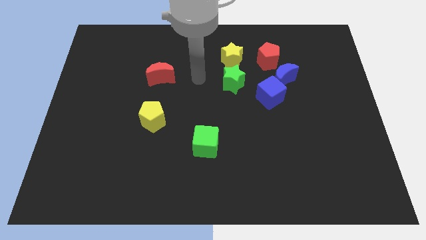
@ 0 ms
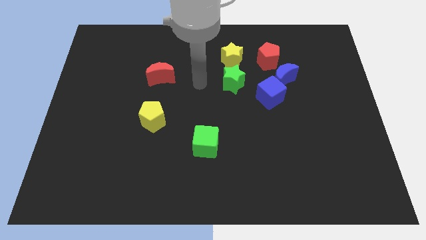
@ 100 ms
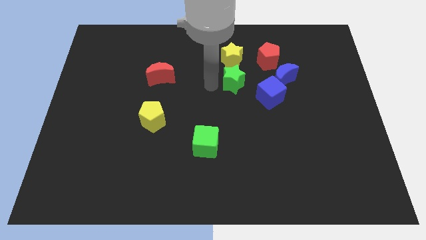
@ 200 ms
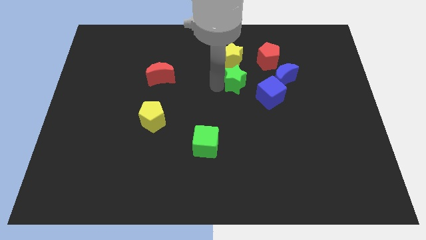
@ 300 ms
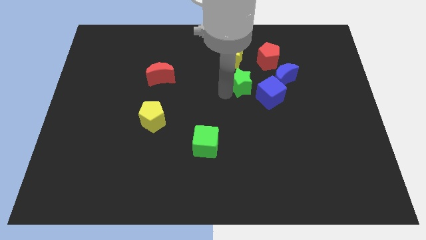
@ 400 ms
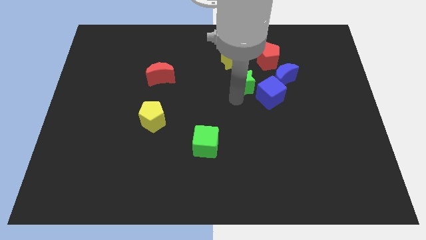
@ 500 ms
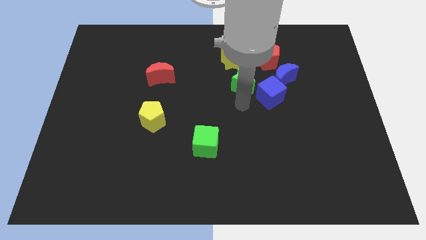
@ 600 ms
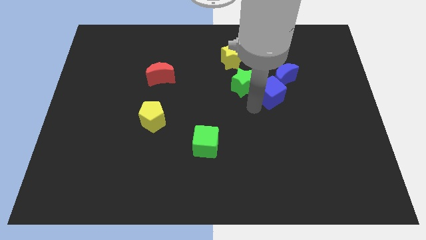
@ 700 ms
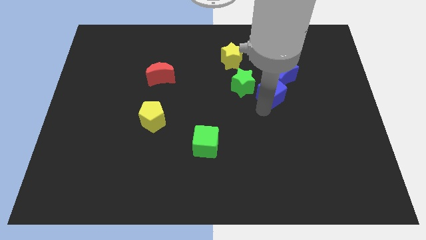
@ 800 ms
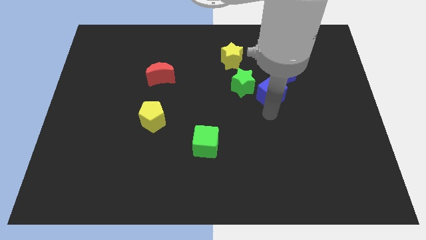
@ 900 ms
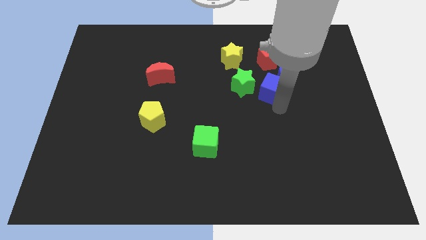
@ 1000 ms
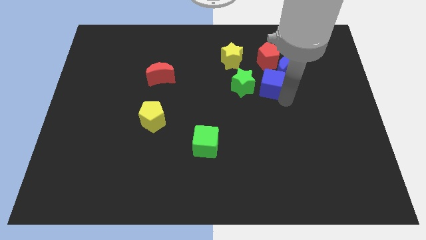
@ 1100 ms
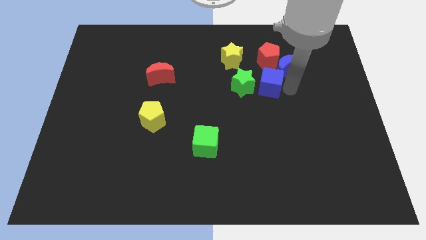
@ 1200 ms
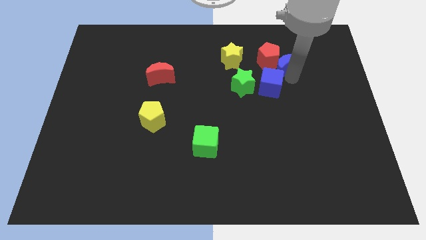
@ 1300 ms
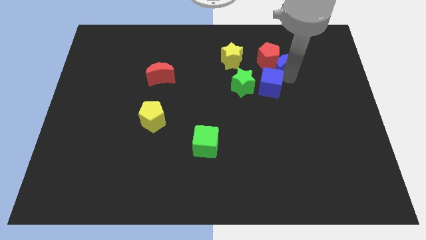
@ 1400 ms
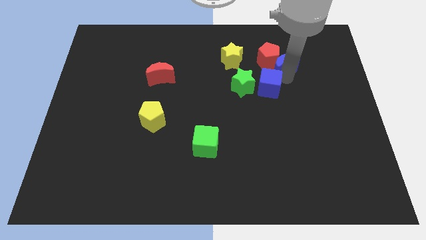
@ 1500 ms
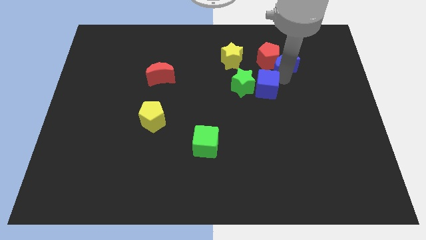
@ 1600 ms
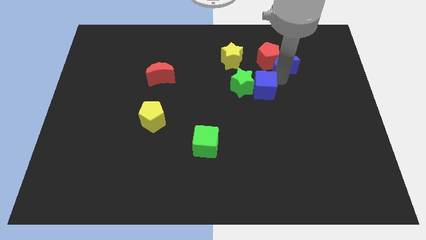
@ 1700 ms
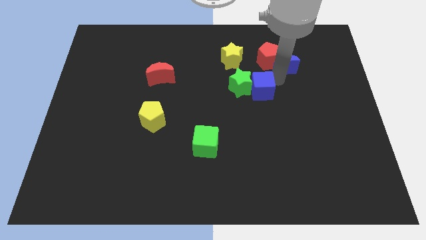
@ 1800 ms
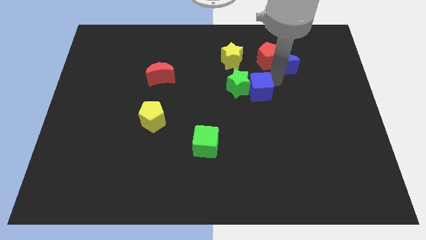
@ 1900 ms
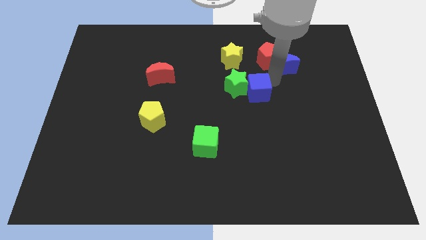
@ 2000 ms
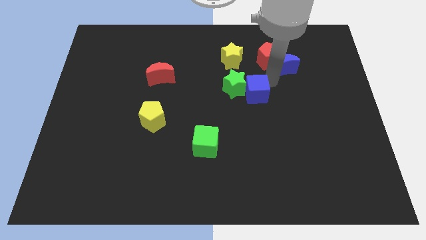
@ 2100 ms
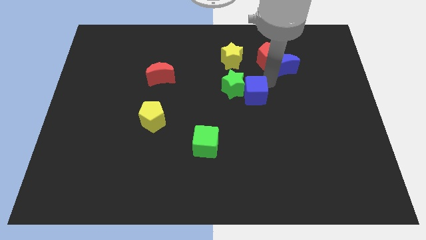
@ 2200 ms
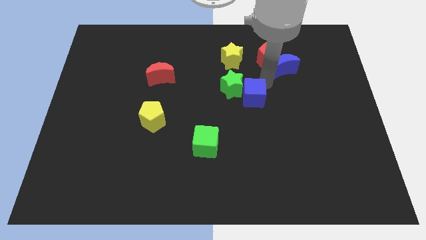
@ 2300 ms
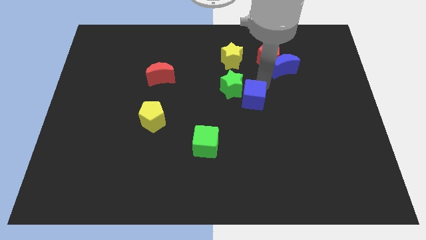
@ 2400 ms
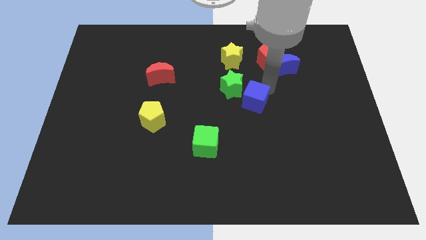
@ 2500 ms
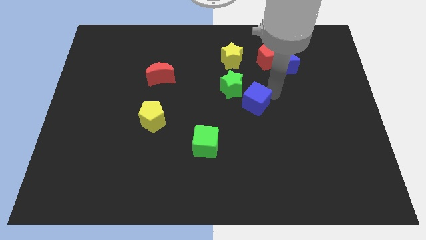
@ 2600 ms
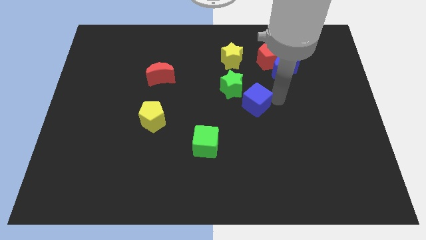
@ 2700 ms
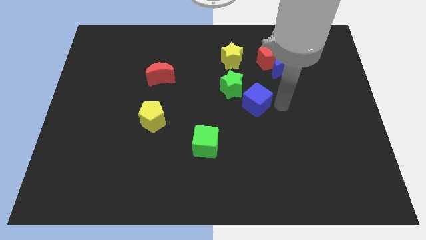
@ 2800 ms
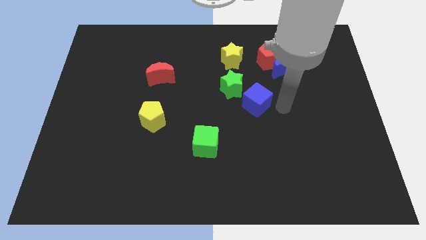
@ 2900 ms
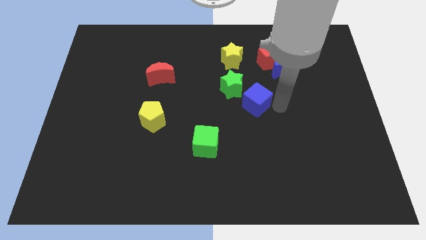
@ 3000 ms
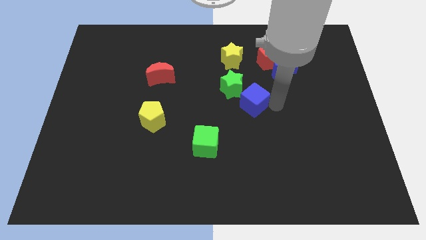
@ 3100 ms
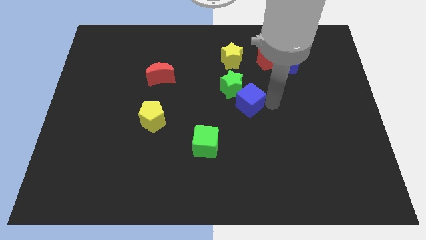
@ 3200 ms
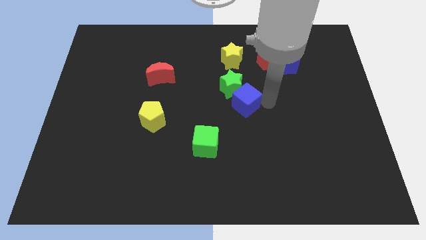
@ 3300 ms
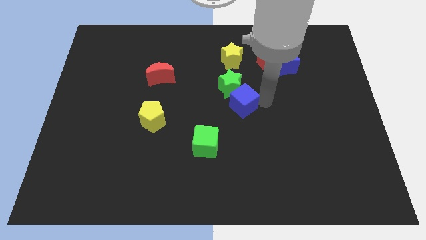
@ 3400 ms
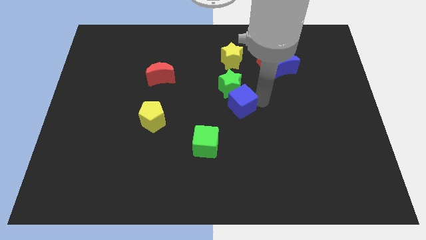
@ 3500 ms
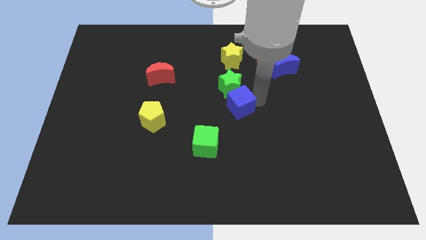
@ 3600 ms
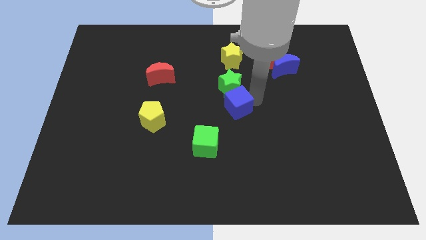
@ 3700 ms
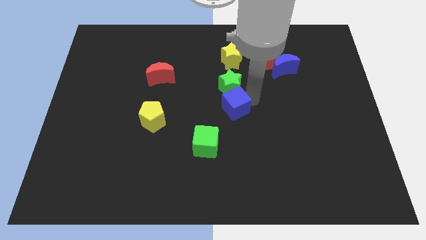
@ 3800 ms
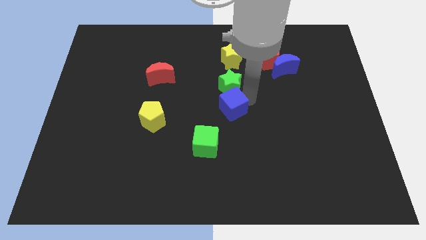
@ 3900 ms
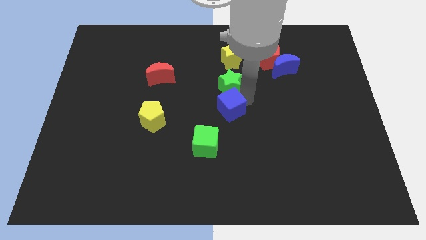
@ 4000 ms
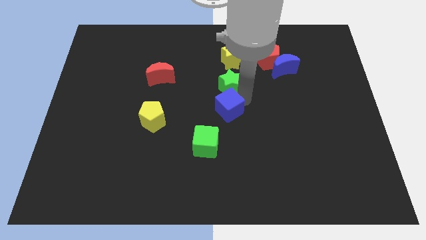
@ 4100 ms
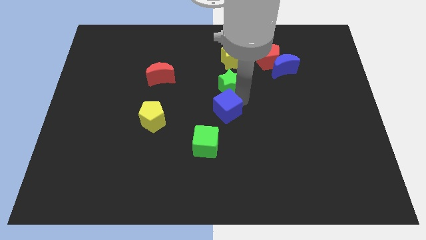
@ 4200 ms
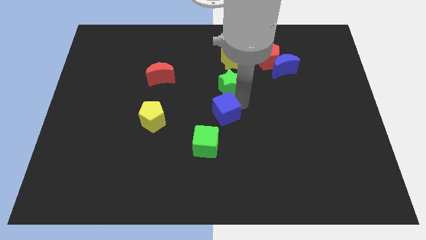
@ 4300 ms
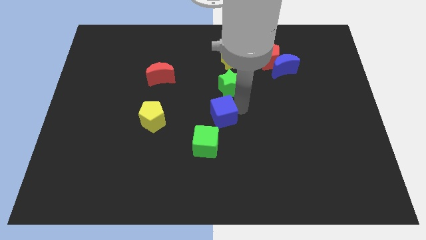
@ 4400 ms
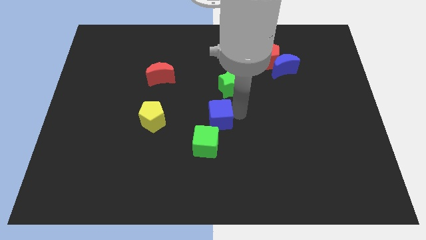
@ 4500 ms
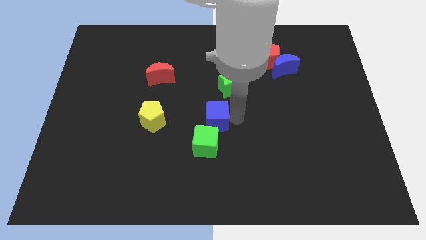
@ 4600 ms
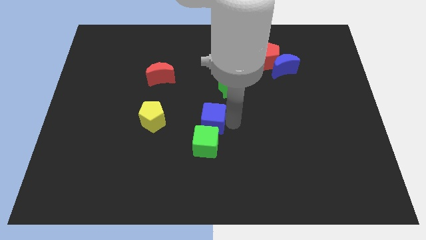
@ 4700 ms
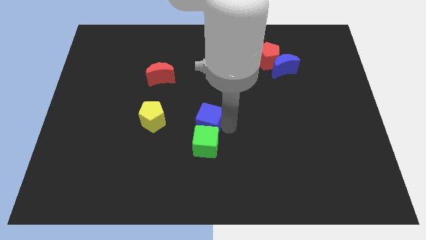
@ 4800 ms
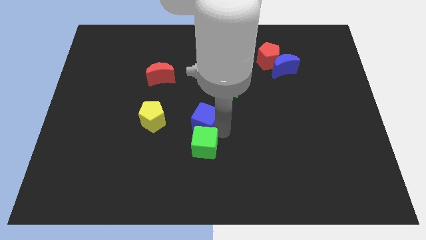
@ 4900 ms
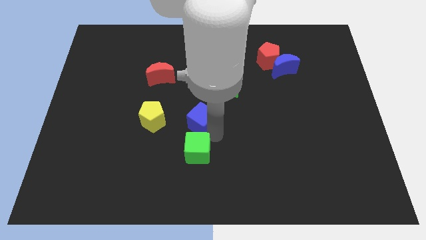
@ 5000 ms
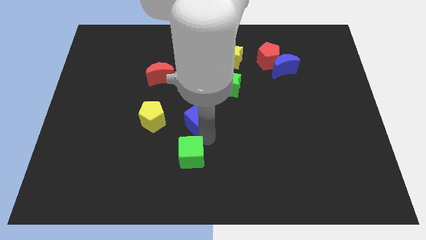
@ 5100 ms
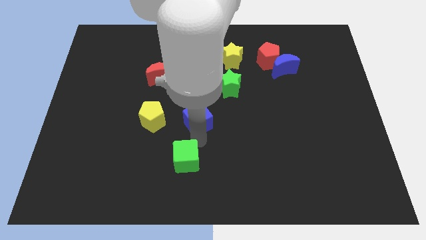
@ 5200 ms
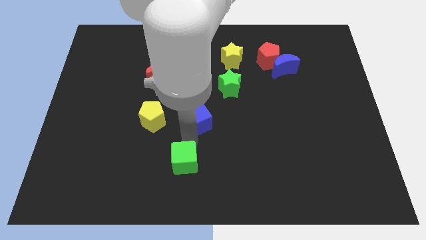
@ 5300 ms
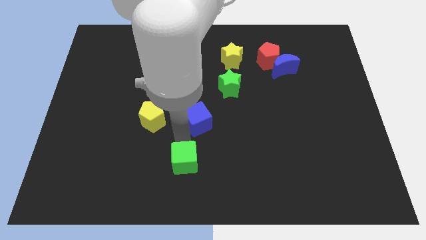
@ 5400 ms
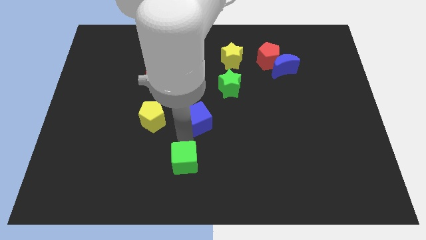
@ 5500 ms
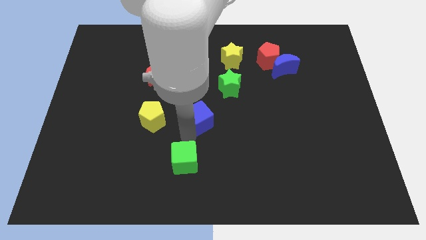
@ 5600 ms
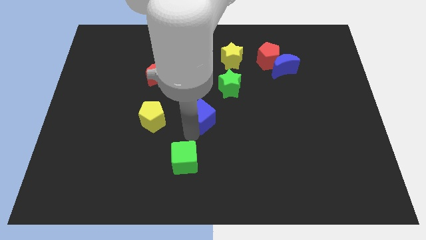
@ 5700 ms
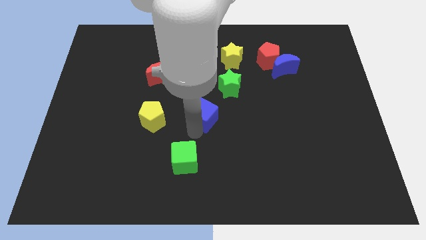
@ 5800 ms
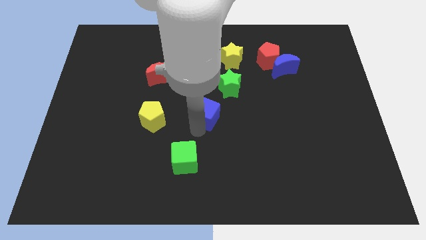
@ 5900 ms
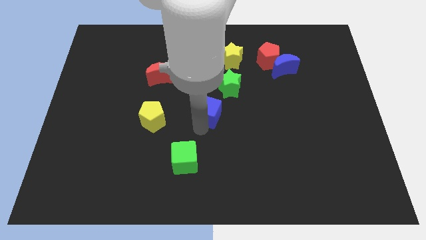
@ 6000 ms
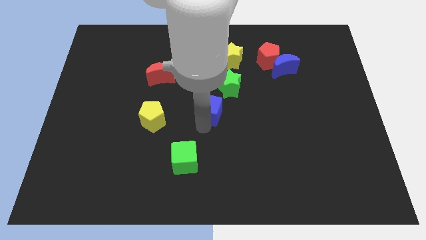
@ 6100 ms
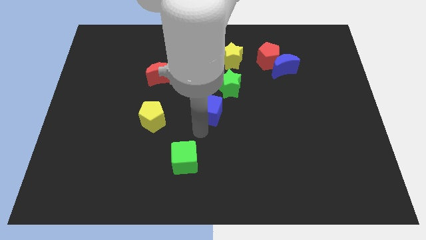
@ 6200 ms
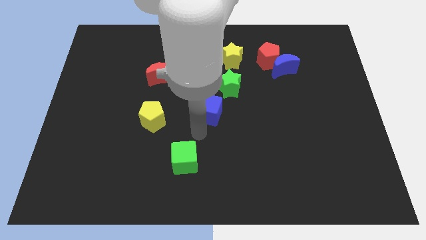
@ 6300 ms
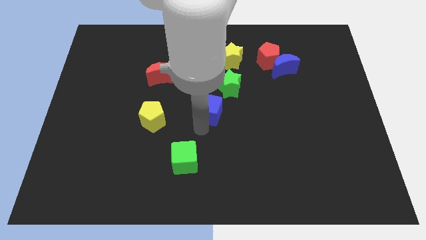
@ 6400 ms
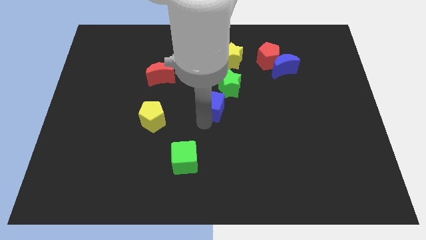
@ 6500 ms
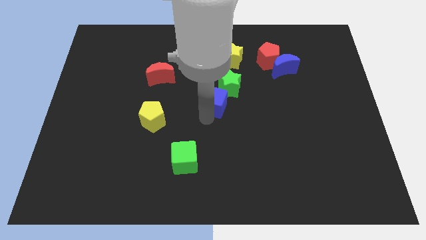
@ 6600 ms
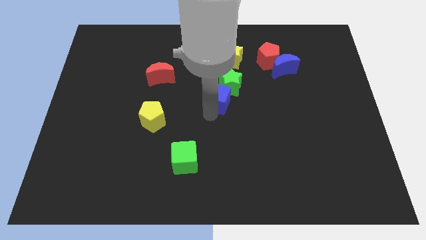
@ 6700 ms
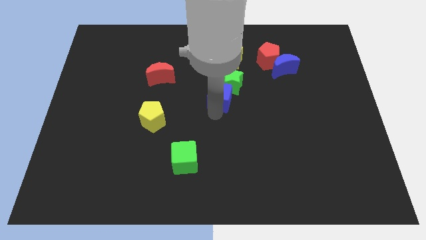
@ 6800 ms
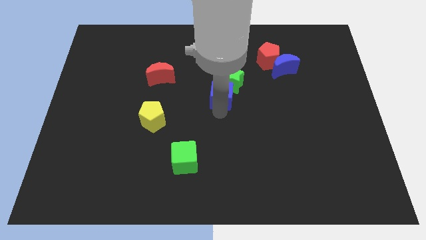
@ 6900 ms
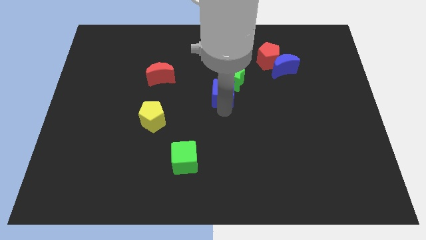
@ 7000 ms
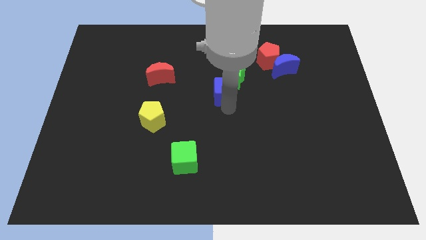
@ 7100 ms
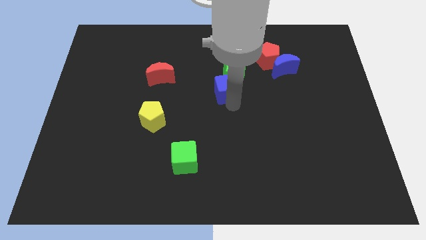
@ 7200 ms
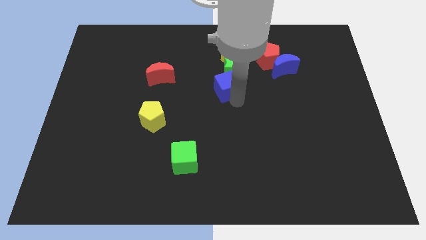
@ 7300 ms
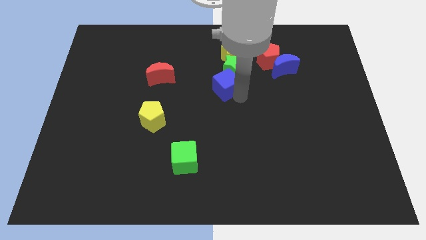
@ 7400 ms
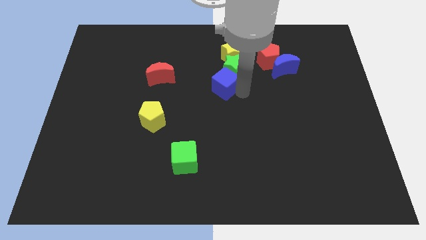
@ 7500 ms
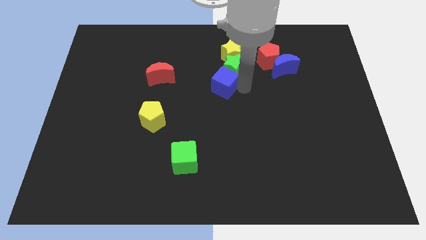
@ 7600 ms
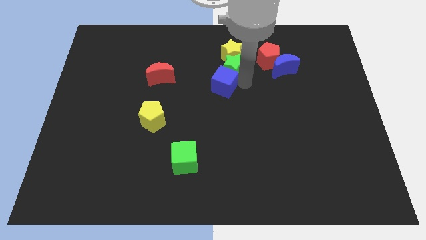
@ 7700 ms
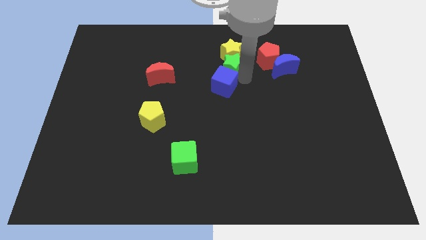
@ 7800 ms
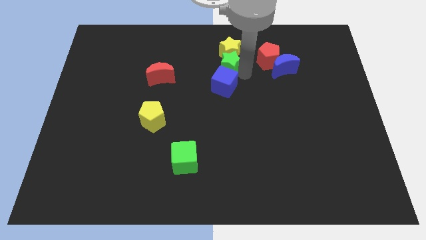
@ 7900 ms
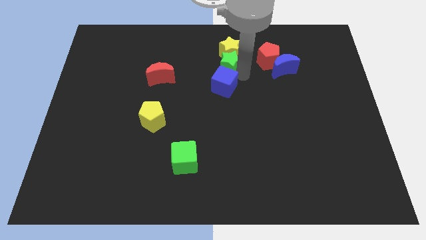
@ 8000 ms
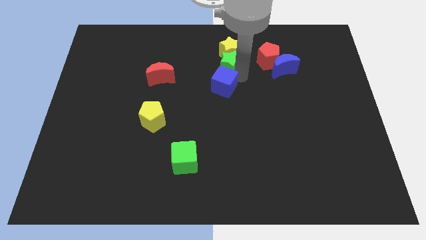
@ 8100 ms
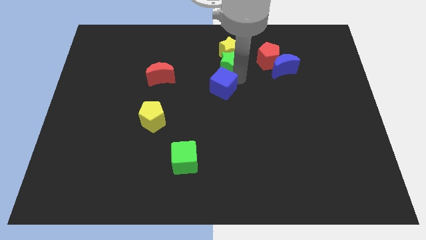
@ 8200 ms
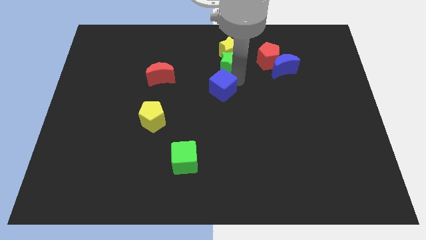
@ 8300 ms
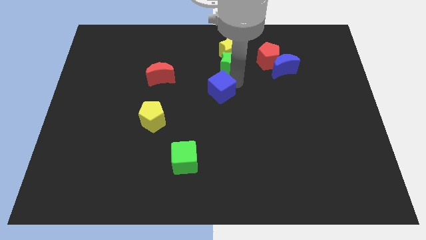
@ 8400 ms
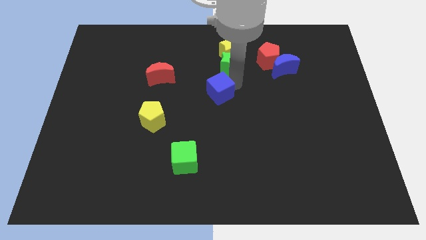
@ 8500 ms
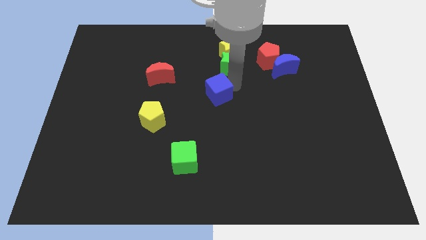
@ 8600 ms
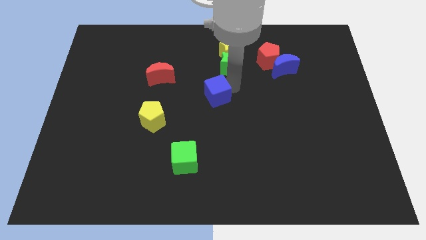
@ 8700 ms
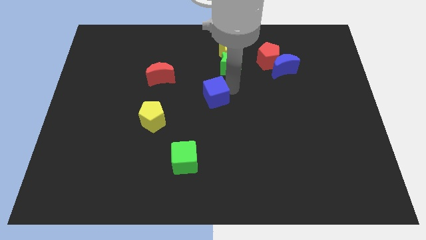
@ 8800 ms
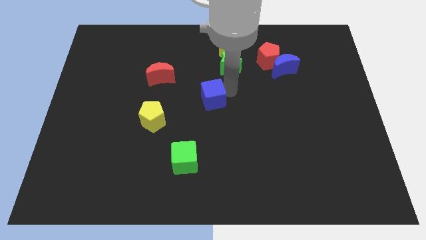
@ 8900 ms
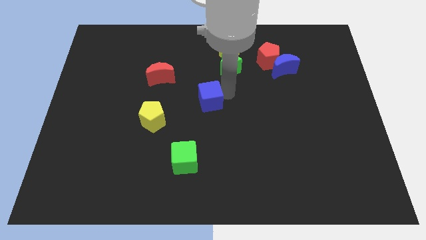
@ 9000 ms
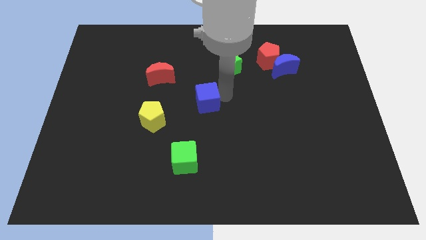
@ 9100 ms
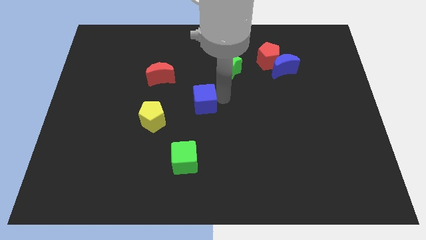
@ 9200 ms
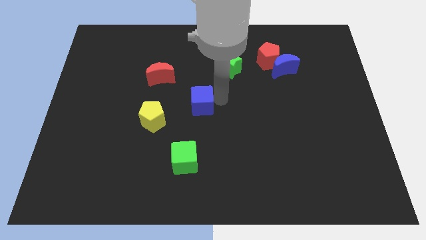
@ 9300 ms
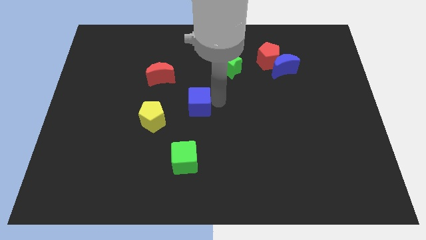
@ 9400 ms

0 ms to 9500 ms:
slide the blue cube diagonally up and to the right of the yellow pentagon
